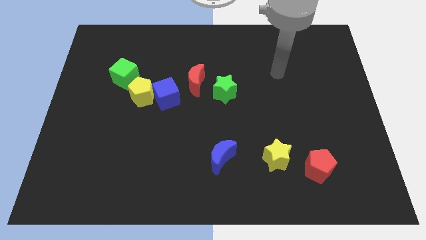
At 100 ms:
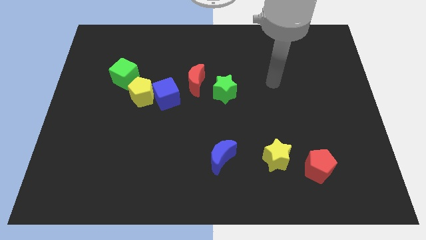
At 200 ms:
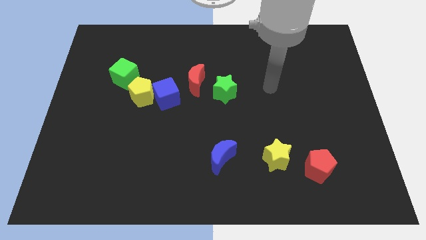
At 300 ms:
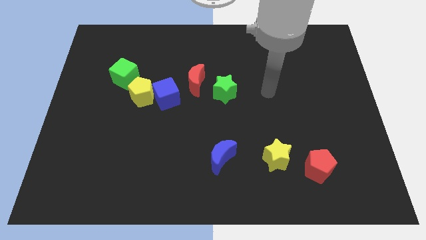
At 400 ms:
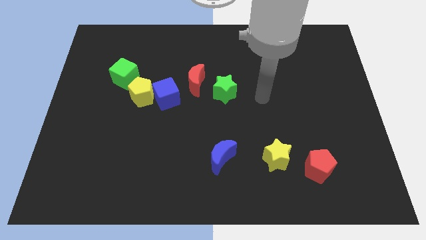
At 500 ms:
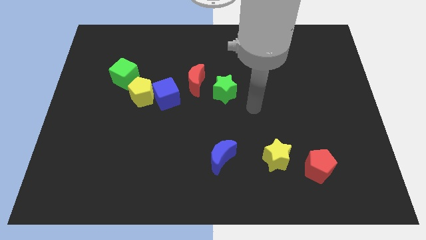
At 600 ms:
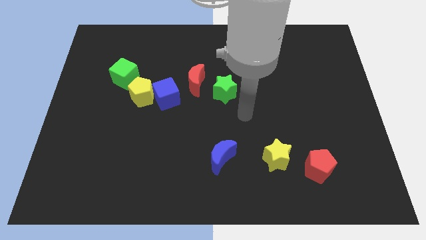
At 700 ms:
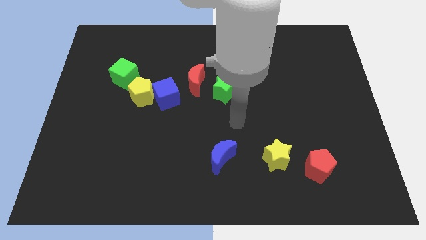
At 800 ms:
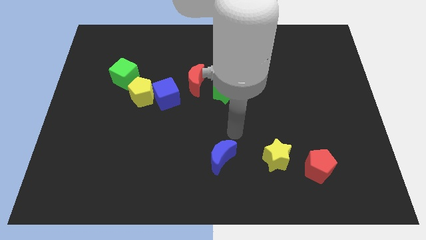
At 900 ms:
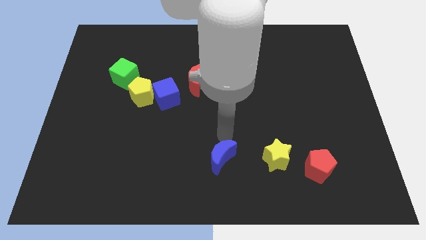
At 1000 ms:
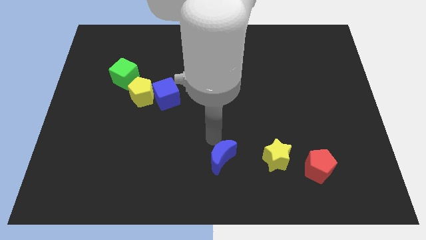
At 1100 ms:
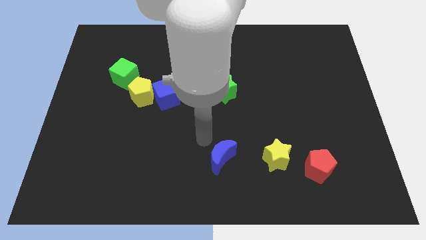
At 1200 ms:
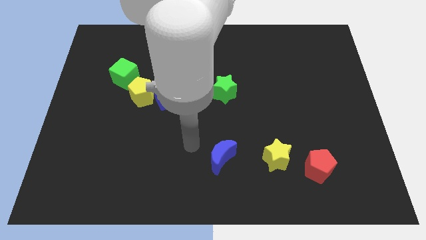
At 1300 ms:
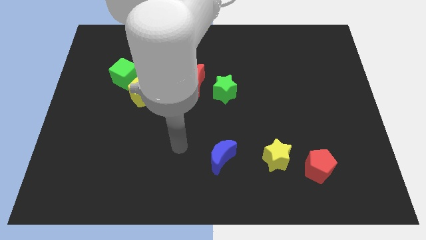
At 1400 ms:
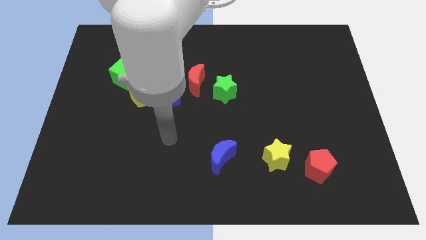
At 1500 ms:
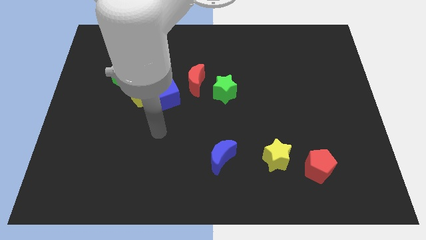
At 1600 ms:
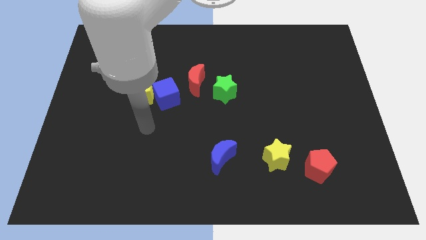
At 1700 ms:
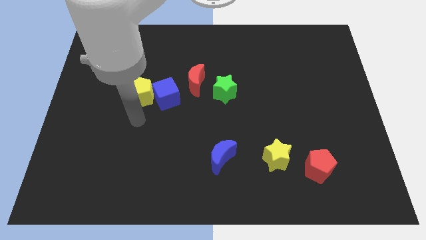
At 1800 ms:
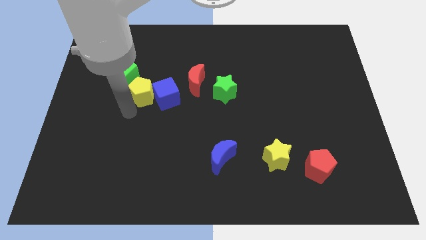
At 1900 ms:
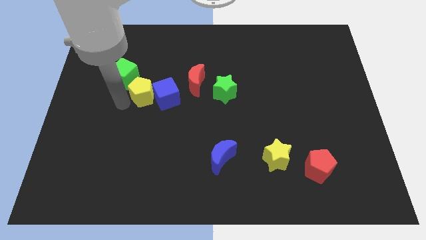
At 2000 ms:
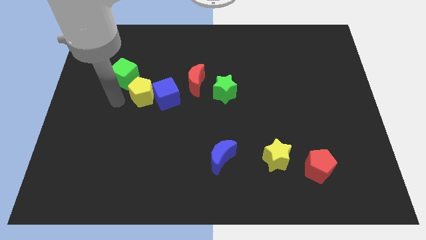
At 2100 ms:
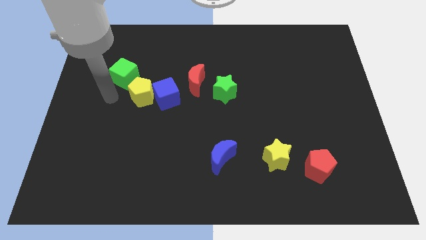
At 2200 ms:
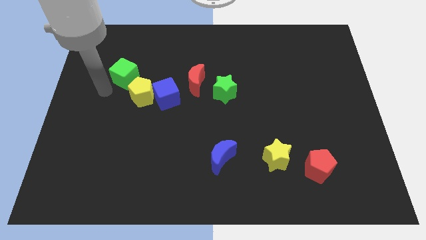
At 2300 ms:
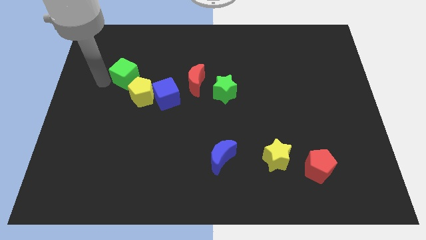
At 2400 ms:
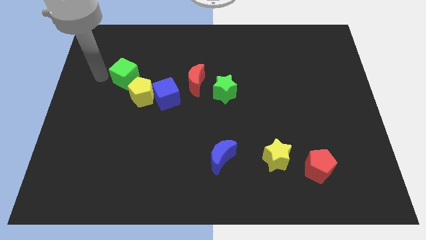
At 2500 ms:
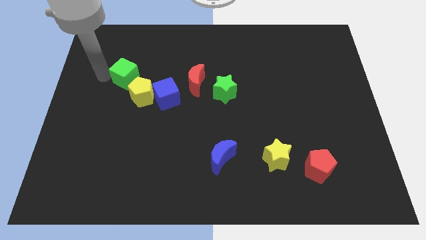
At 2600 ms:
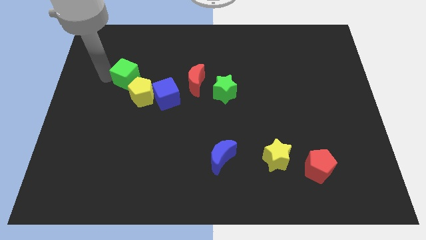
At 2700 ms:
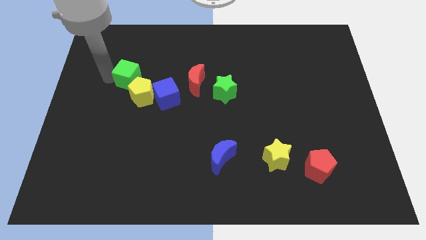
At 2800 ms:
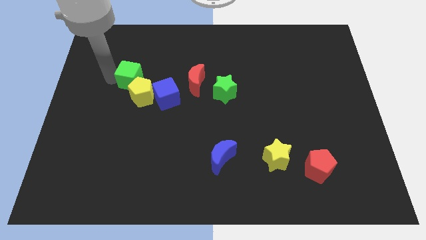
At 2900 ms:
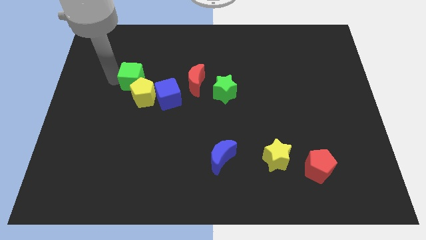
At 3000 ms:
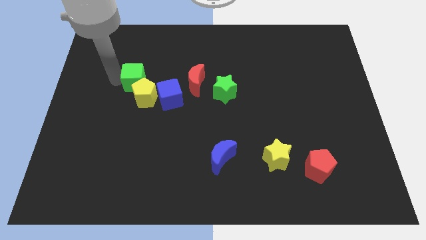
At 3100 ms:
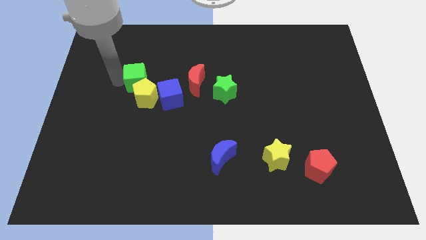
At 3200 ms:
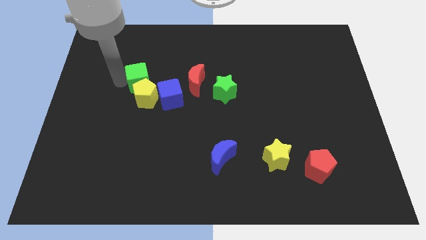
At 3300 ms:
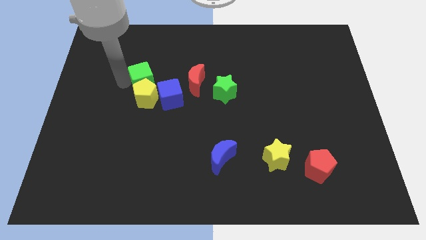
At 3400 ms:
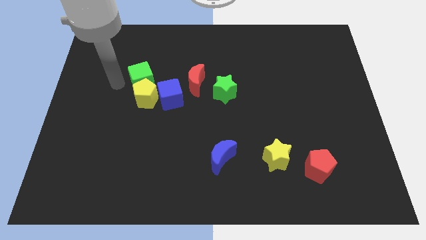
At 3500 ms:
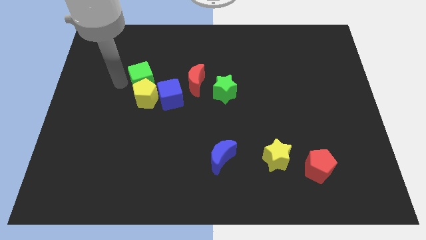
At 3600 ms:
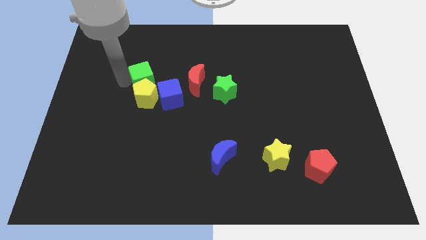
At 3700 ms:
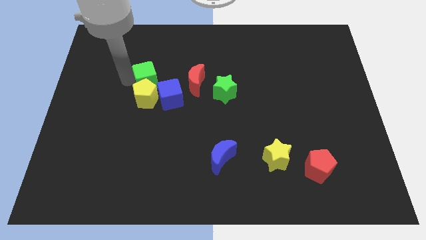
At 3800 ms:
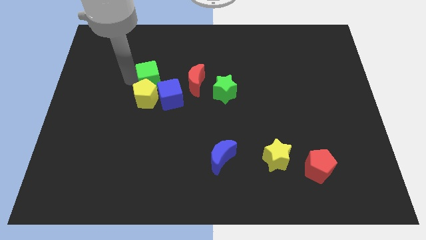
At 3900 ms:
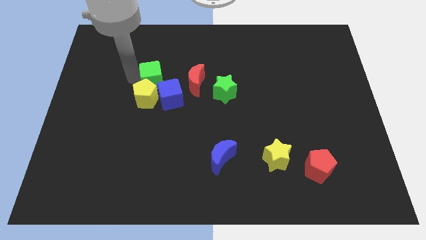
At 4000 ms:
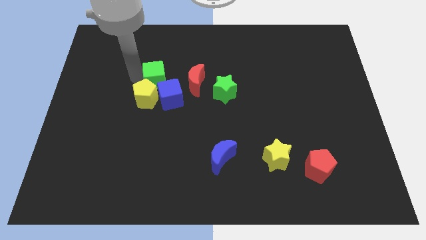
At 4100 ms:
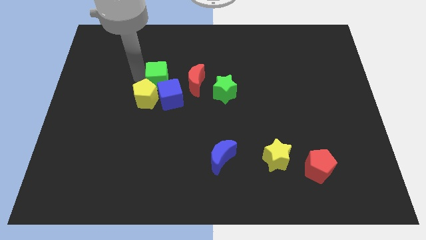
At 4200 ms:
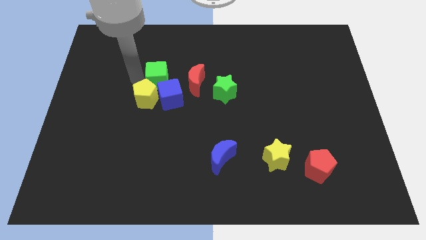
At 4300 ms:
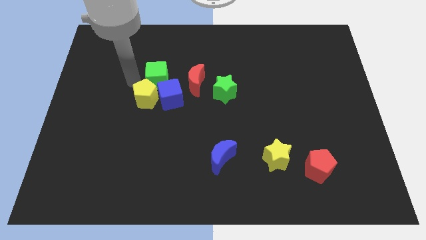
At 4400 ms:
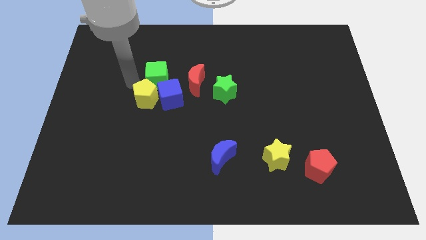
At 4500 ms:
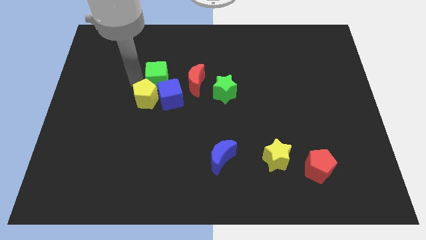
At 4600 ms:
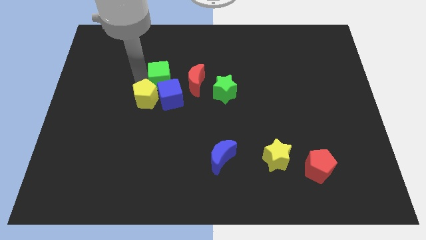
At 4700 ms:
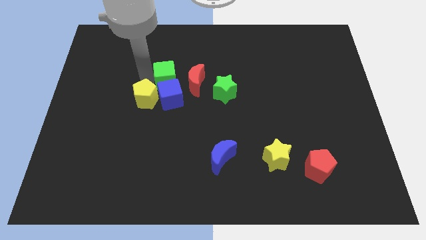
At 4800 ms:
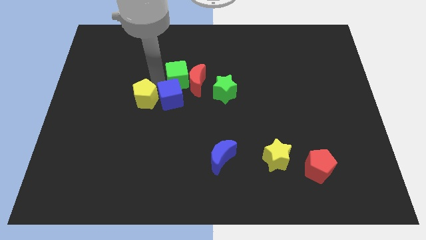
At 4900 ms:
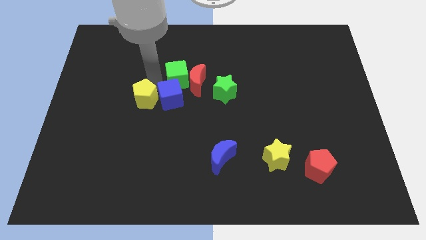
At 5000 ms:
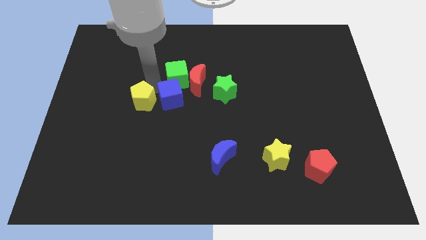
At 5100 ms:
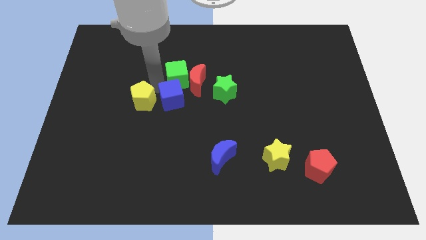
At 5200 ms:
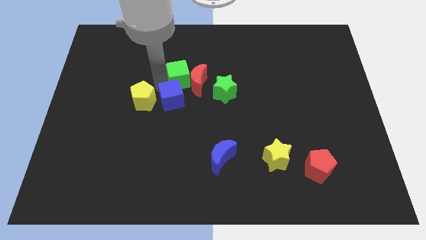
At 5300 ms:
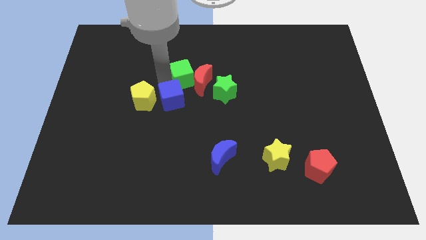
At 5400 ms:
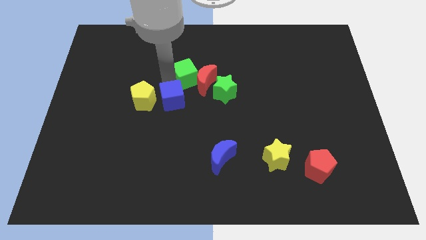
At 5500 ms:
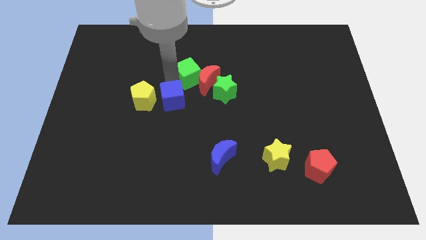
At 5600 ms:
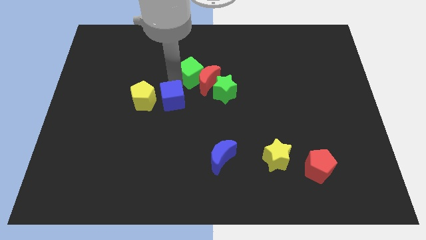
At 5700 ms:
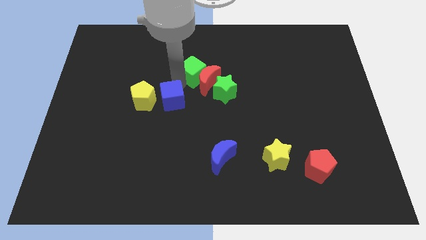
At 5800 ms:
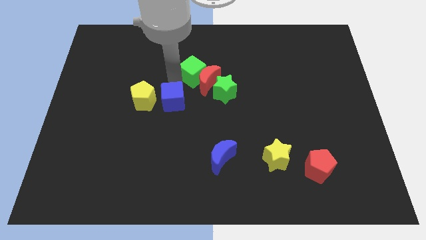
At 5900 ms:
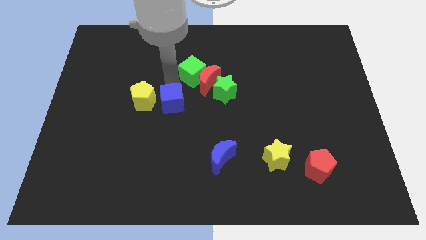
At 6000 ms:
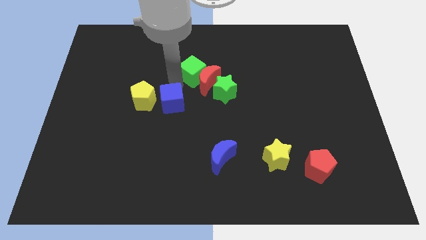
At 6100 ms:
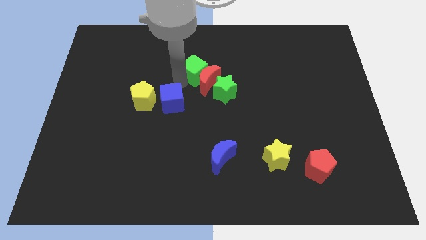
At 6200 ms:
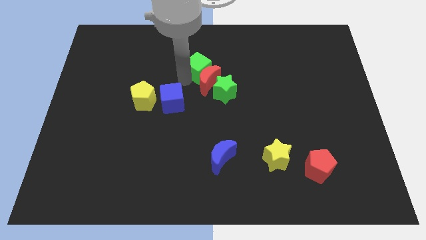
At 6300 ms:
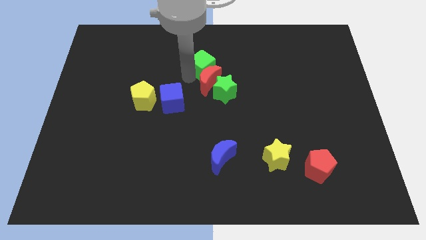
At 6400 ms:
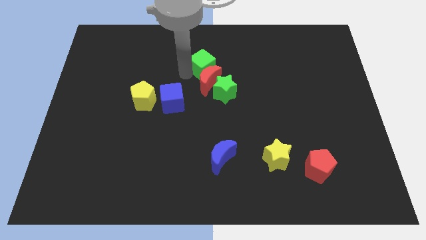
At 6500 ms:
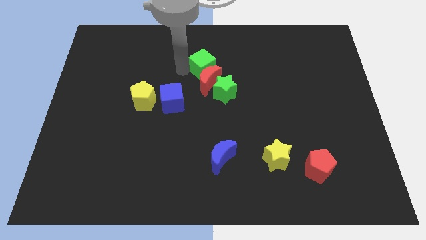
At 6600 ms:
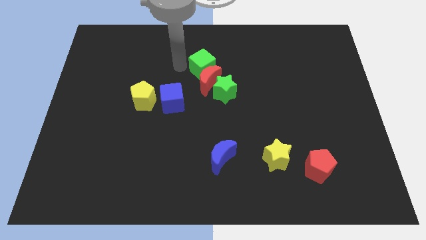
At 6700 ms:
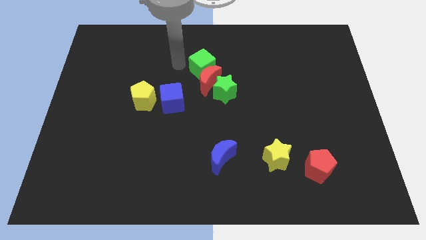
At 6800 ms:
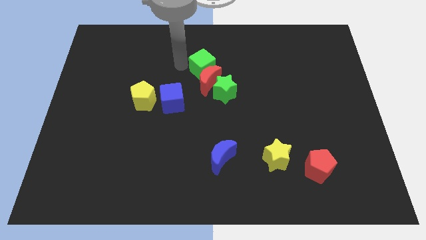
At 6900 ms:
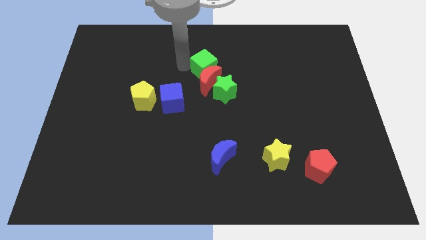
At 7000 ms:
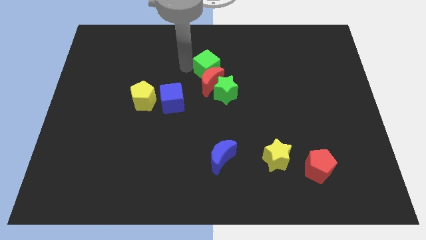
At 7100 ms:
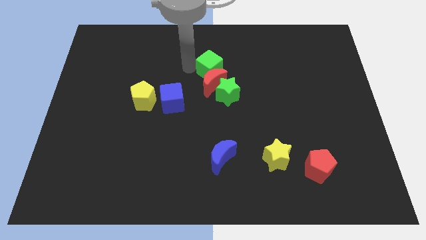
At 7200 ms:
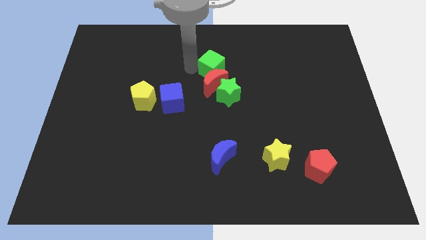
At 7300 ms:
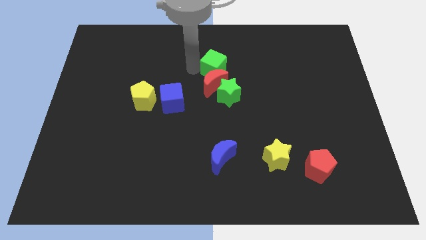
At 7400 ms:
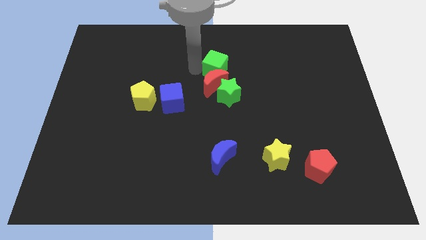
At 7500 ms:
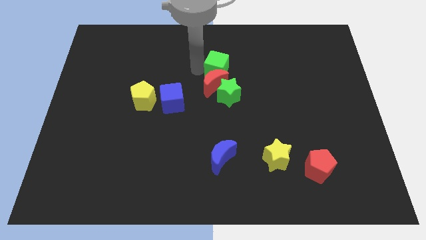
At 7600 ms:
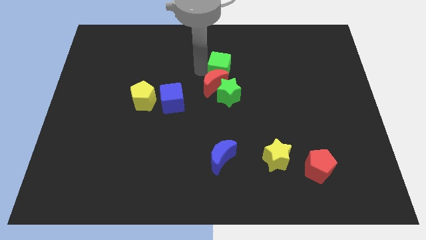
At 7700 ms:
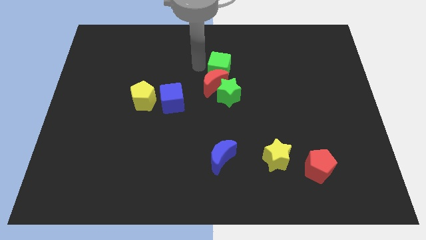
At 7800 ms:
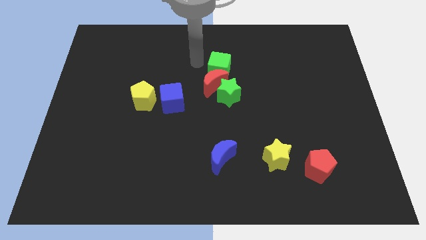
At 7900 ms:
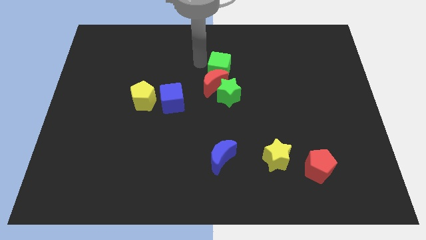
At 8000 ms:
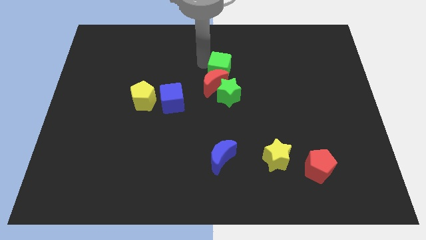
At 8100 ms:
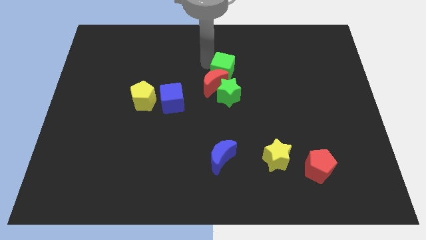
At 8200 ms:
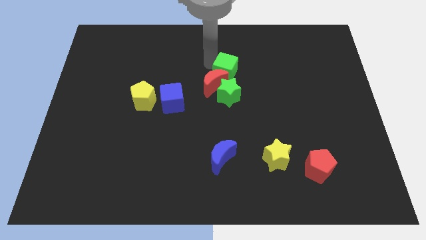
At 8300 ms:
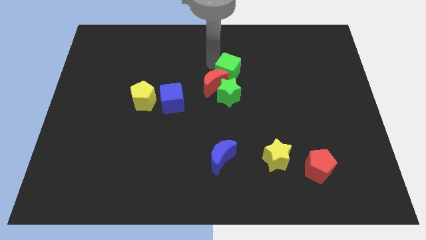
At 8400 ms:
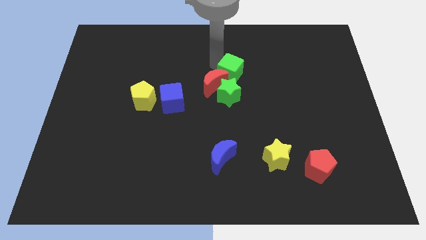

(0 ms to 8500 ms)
push the green cube to the top right side of the green star

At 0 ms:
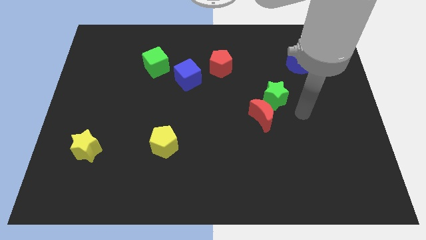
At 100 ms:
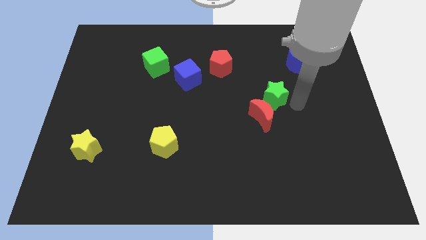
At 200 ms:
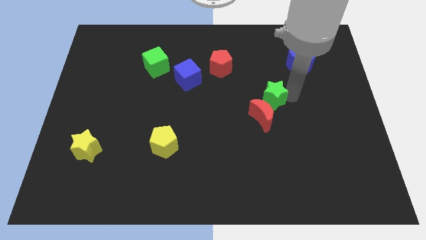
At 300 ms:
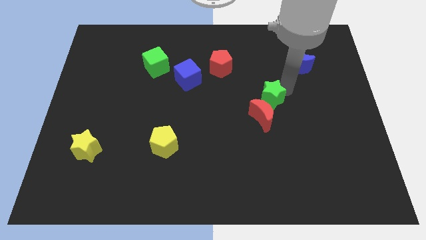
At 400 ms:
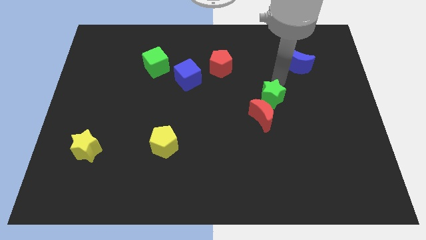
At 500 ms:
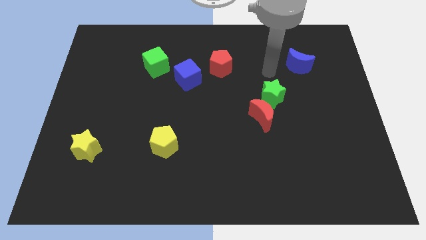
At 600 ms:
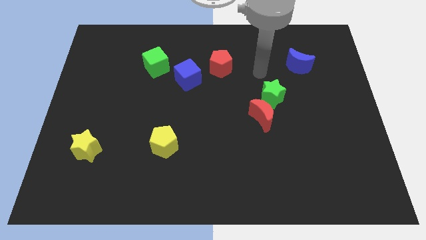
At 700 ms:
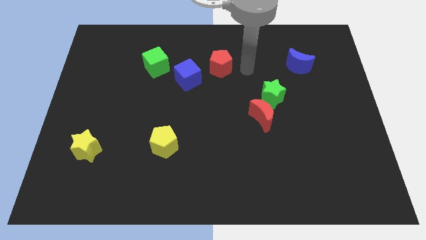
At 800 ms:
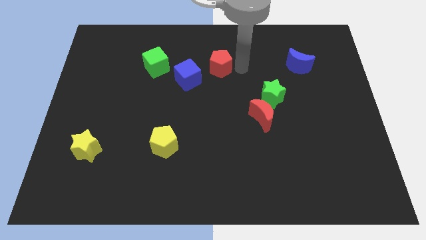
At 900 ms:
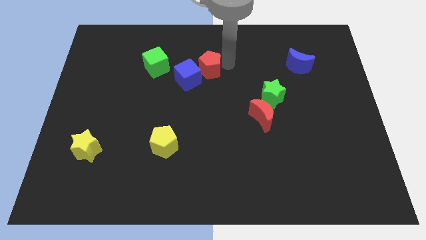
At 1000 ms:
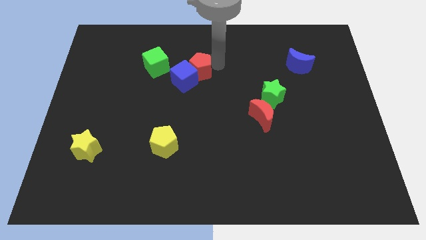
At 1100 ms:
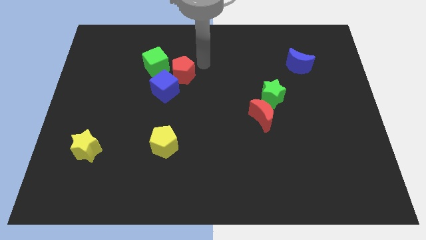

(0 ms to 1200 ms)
push the blue cube to the bottom of the green cube
